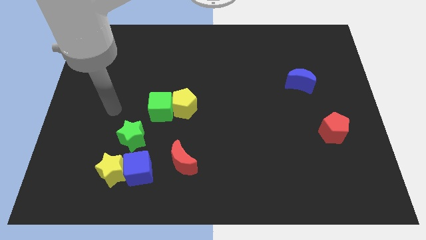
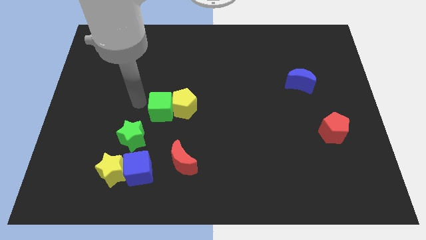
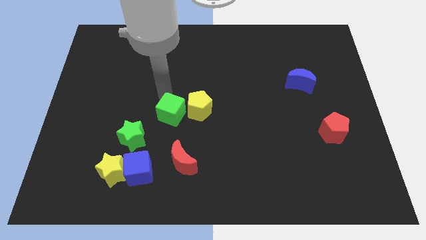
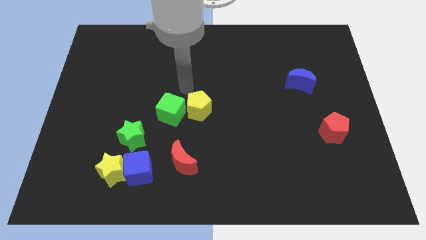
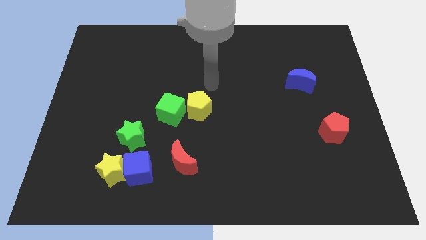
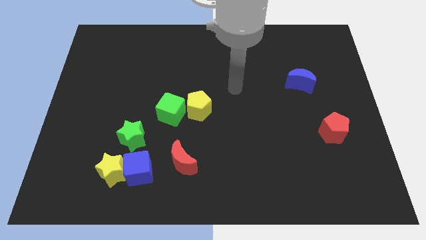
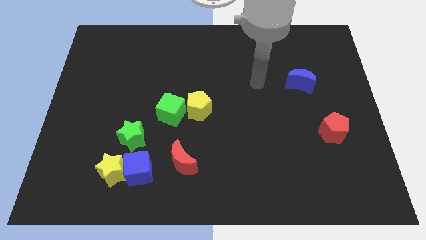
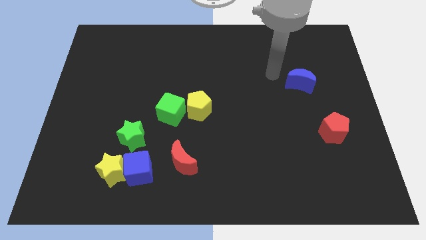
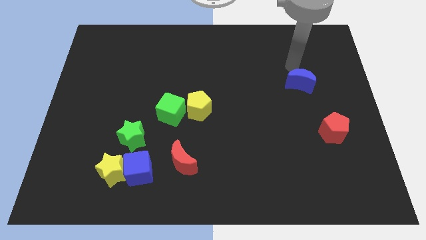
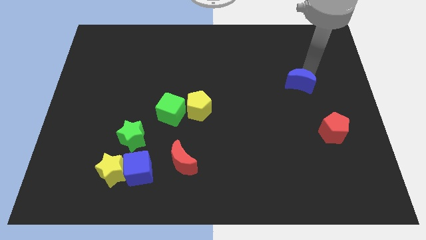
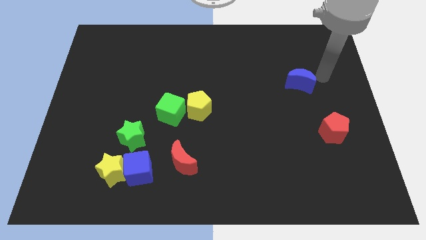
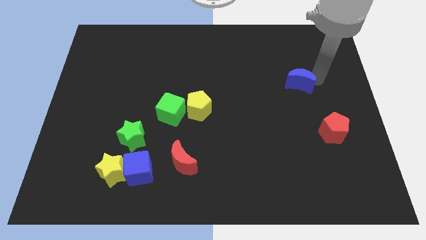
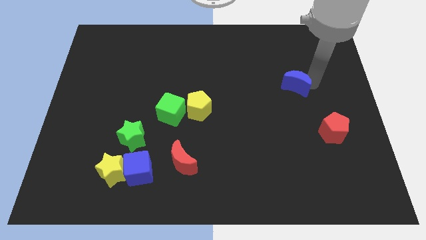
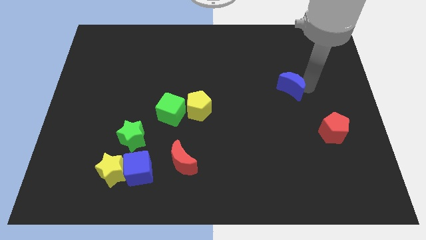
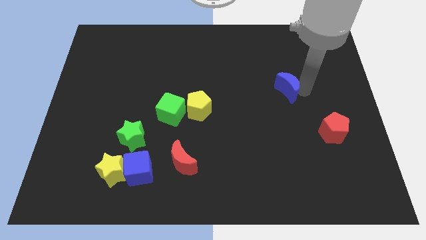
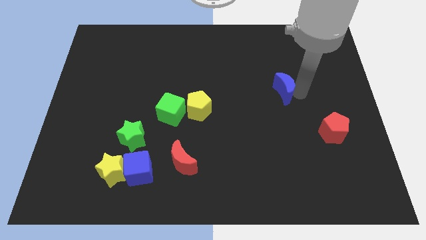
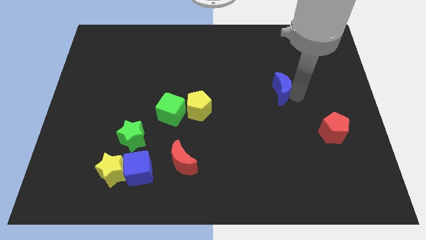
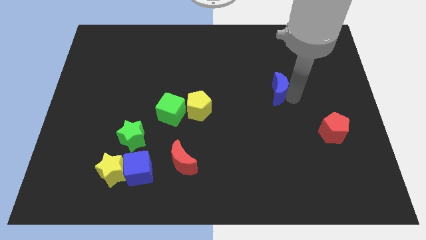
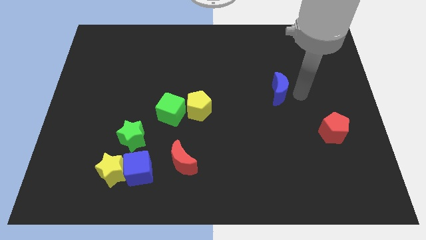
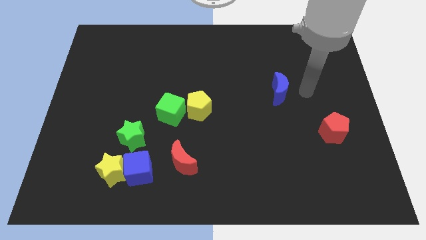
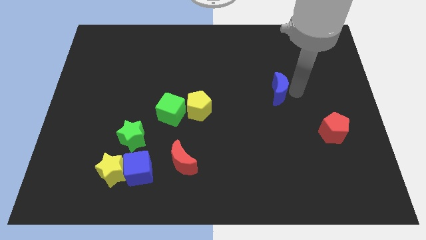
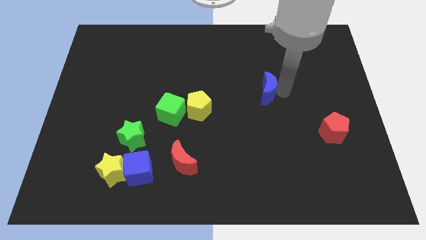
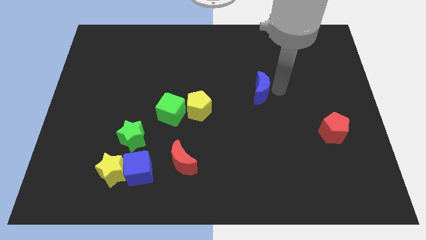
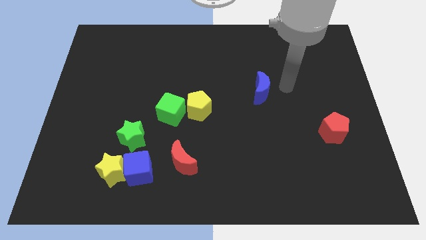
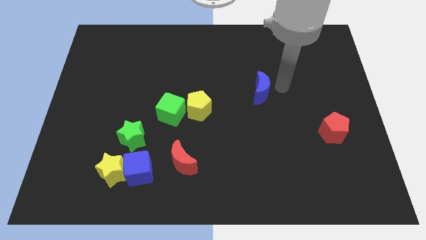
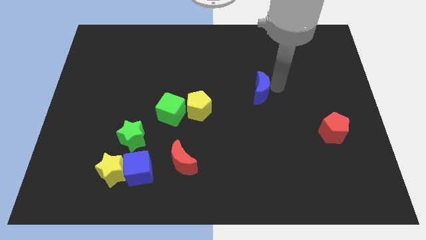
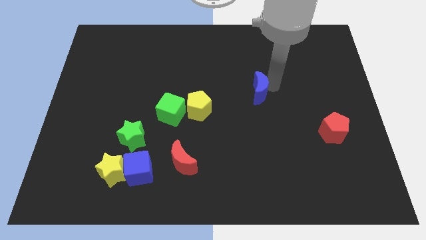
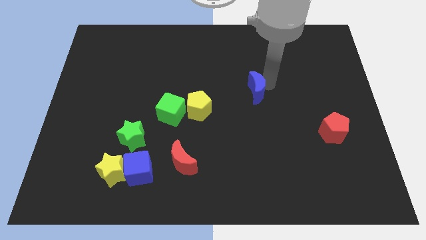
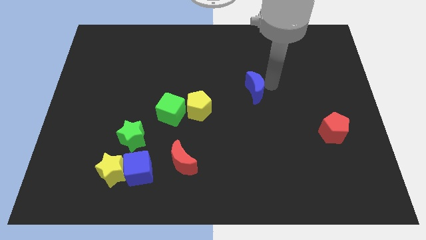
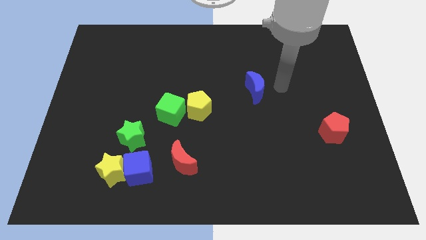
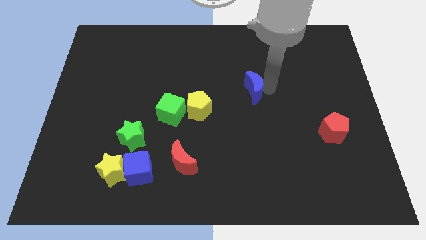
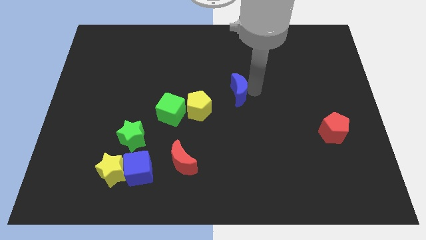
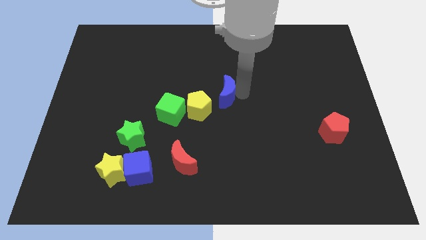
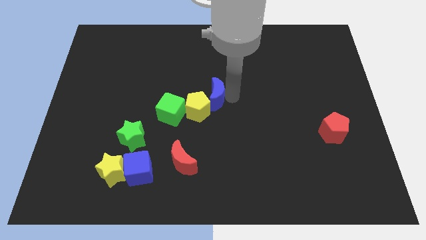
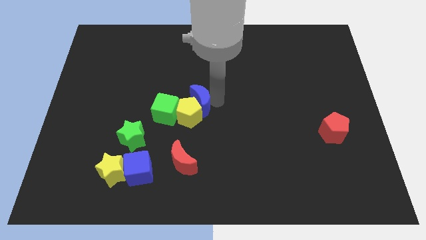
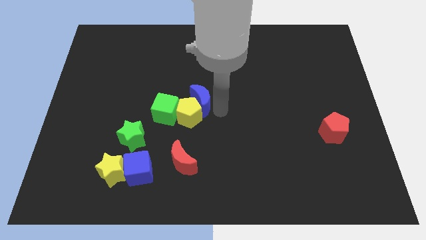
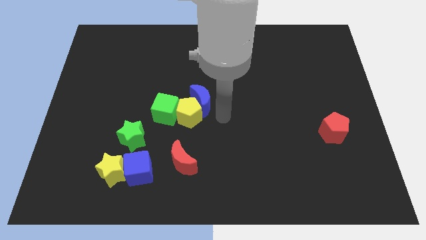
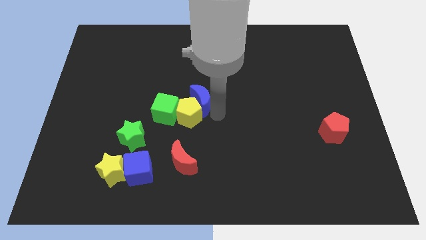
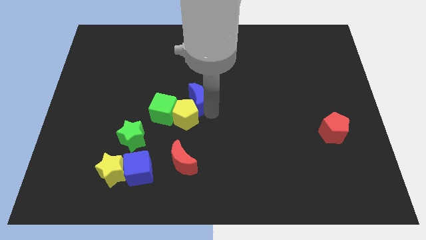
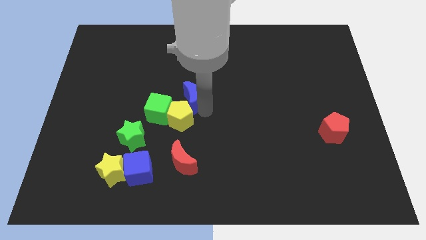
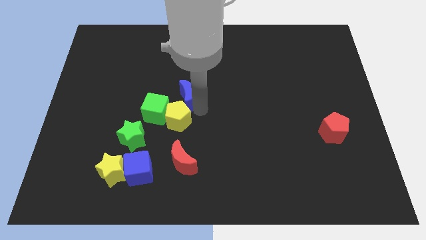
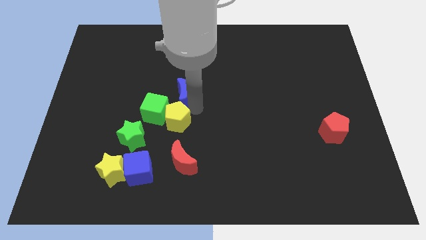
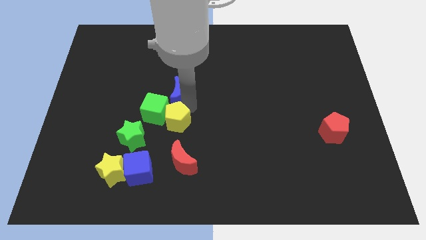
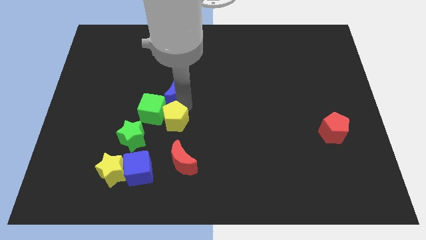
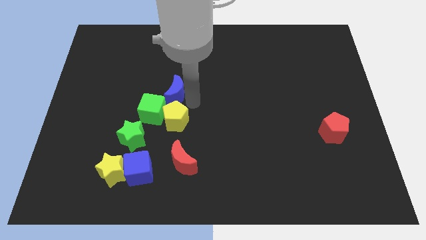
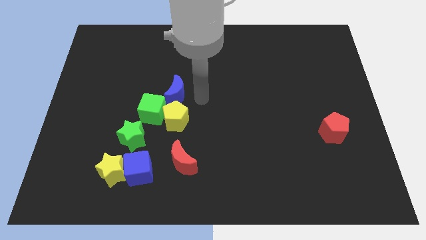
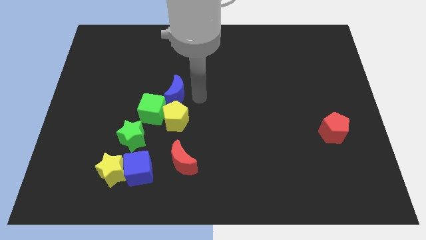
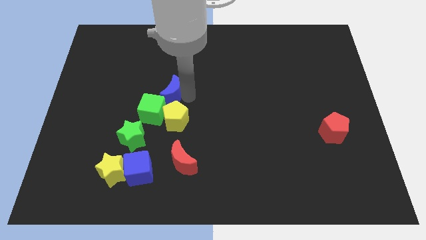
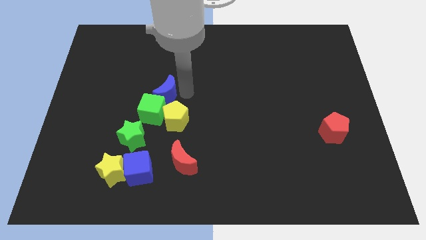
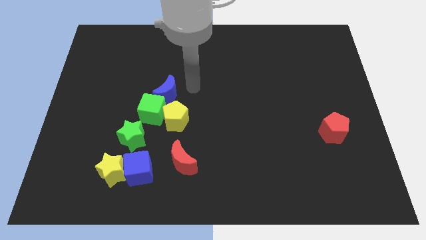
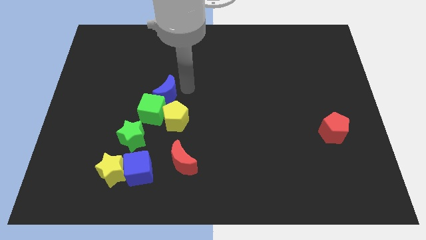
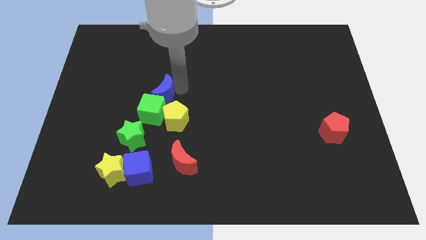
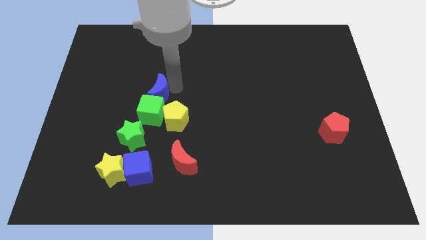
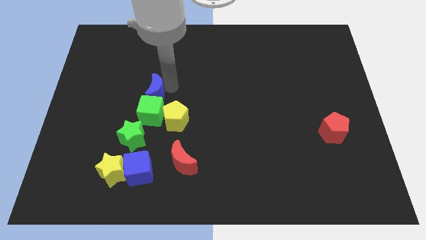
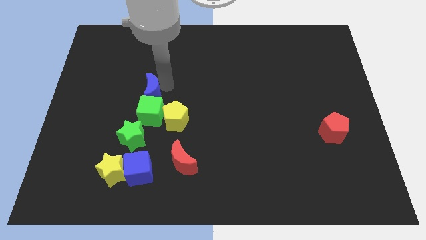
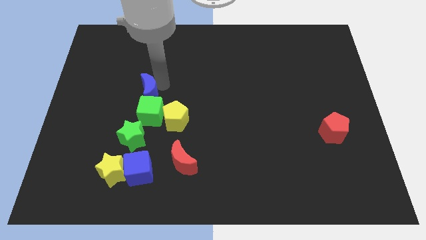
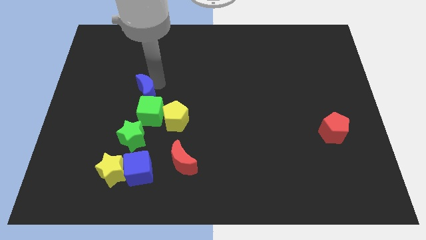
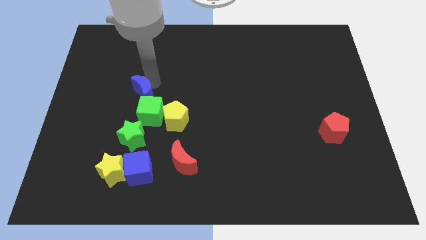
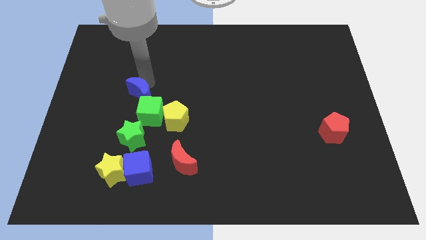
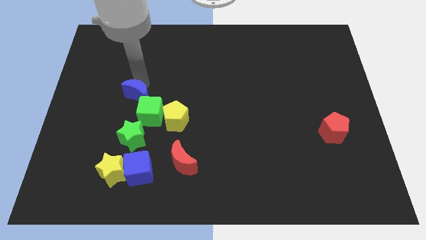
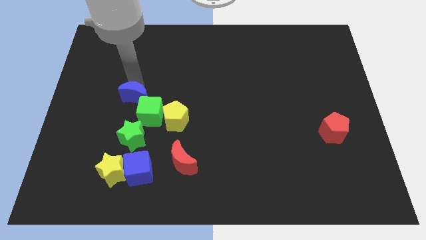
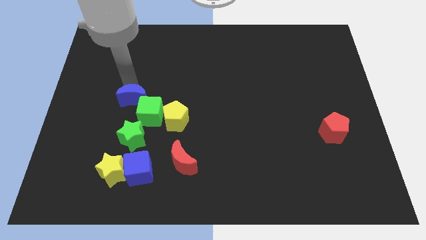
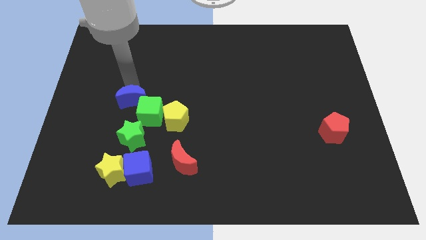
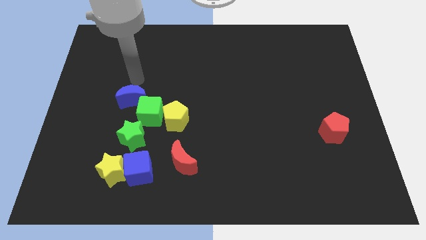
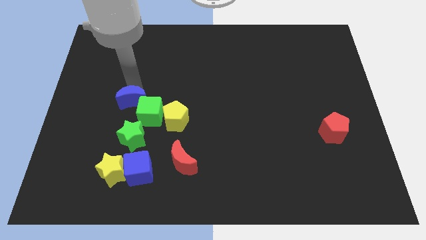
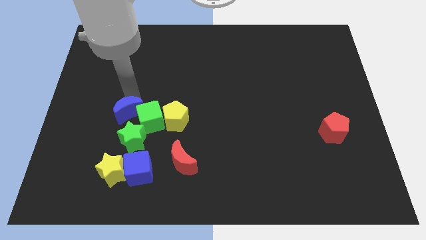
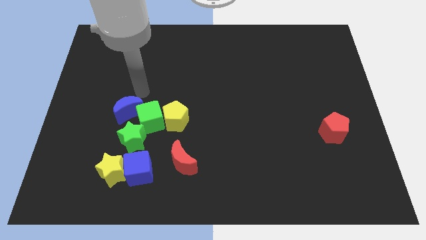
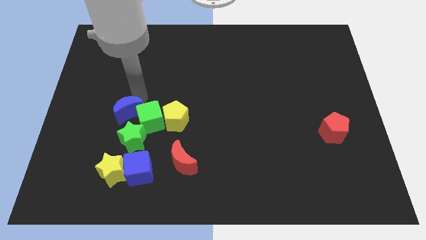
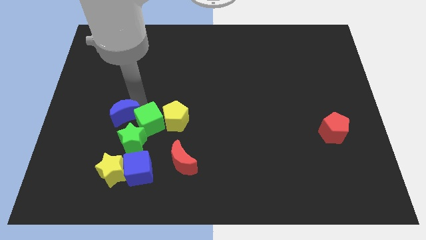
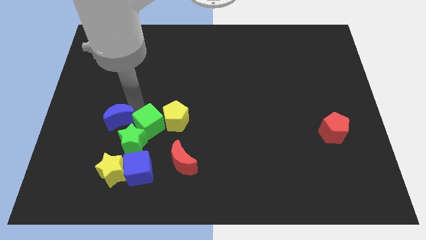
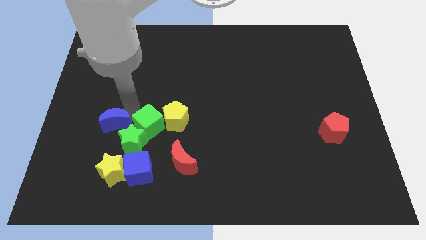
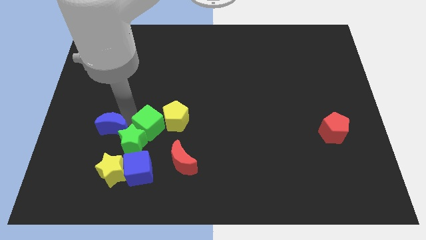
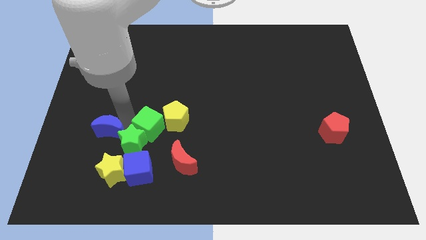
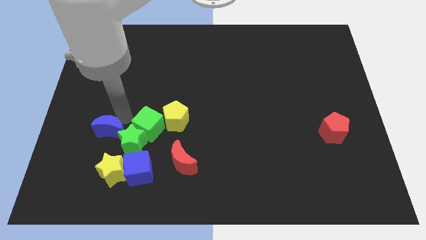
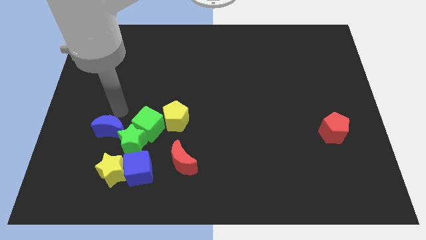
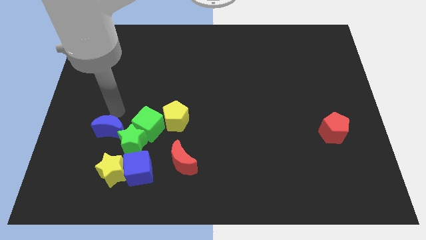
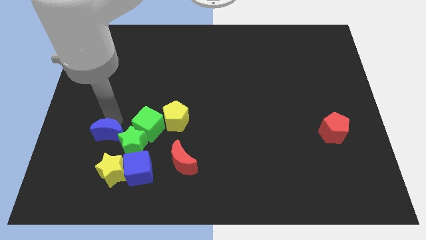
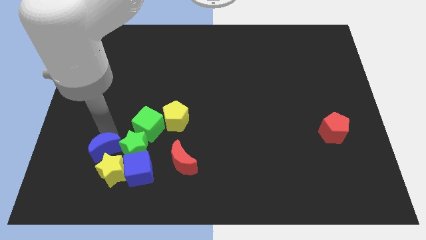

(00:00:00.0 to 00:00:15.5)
move the blue moon diagonally down and to the left of the green star

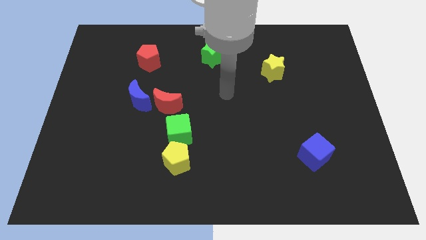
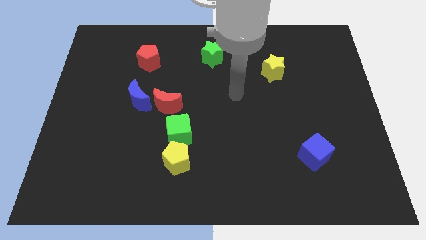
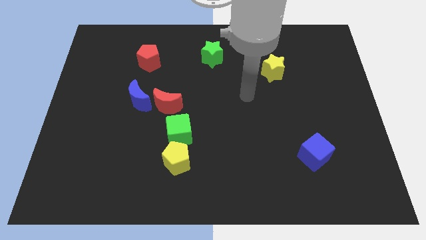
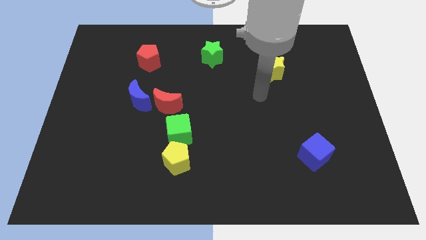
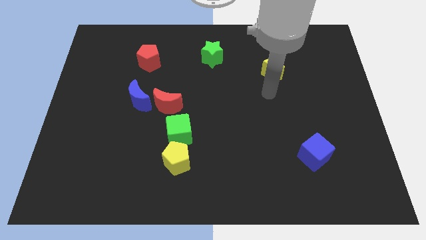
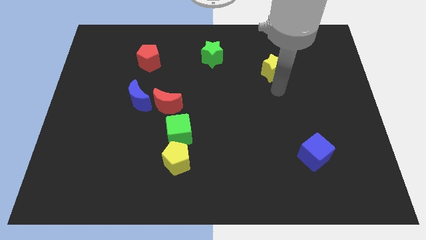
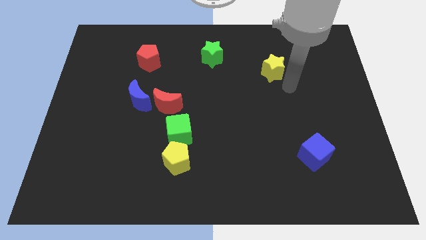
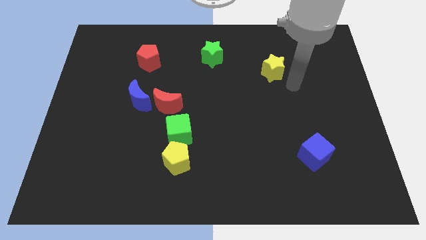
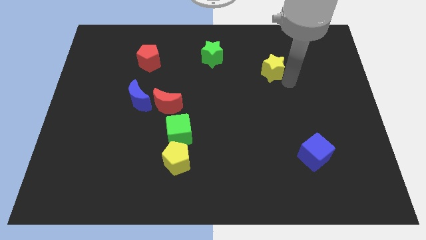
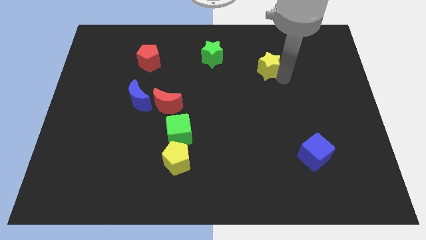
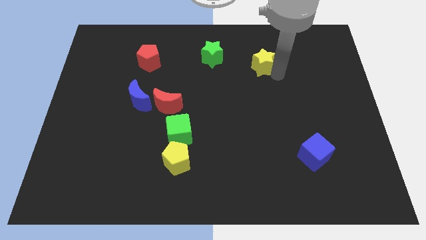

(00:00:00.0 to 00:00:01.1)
put the yellow star just right of the green star
